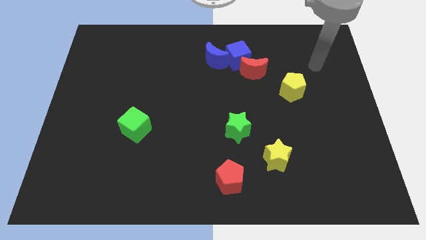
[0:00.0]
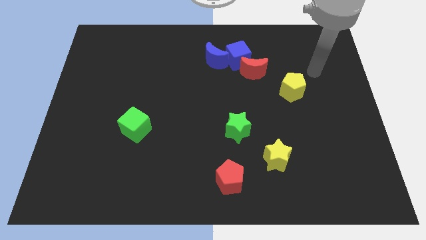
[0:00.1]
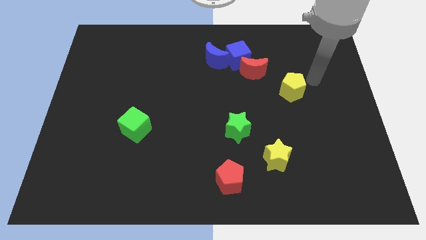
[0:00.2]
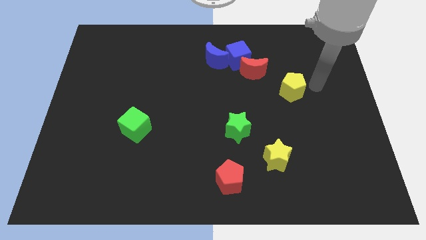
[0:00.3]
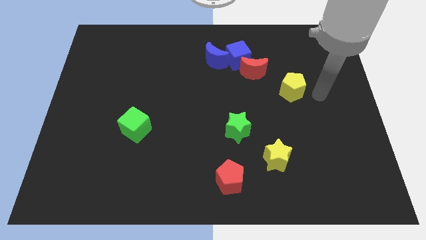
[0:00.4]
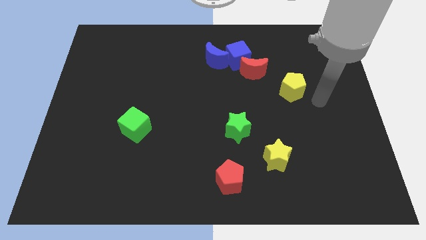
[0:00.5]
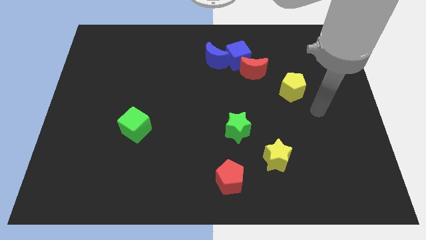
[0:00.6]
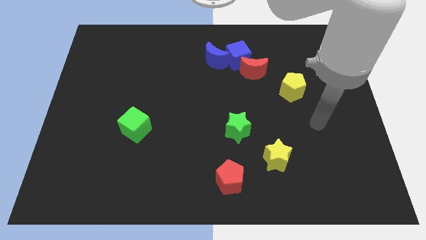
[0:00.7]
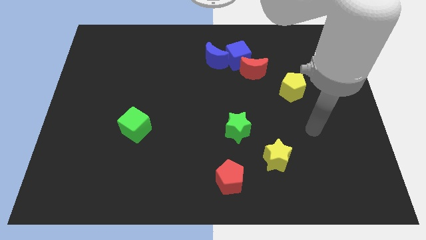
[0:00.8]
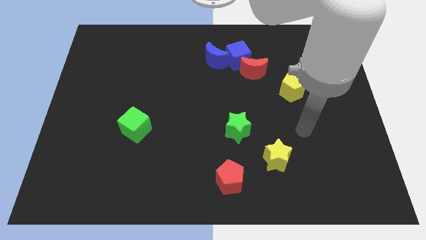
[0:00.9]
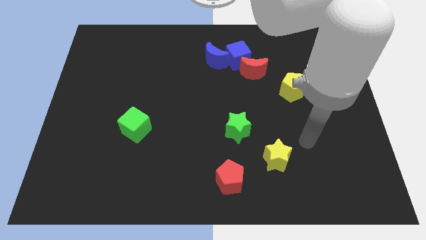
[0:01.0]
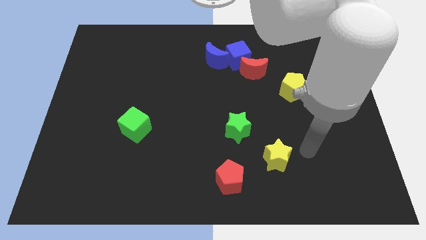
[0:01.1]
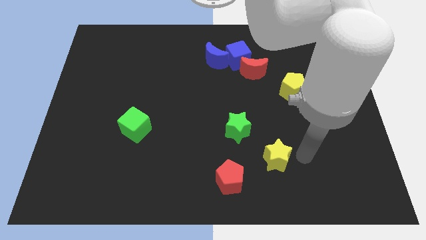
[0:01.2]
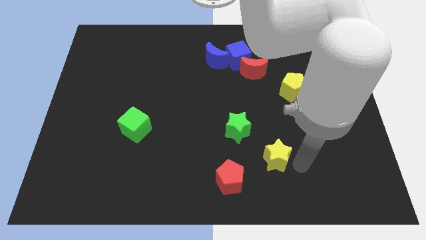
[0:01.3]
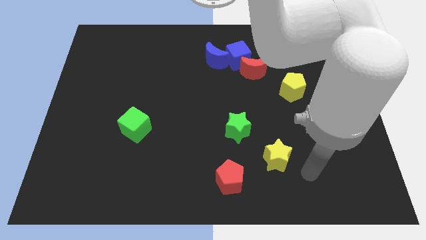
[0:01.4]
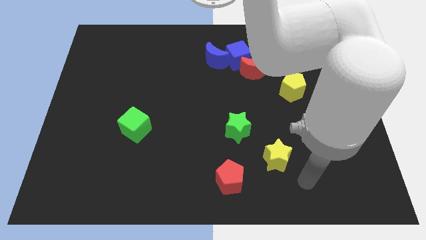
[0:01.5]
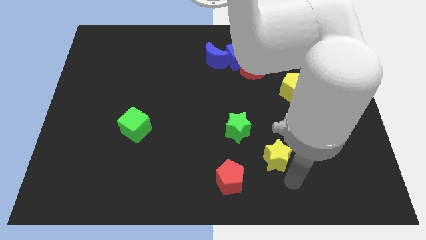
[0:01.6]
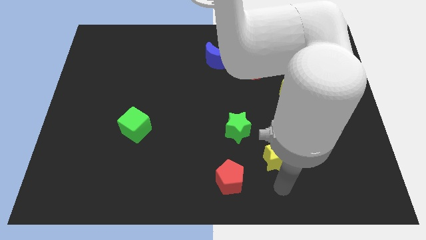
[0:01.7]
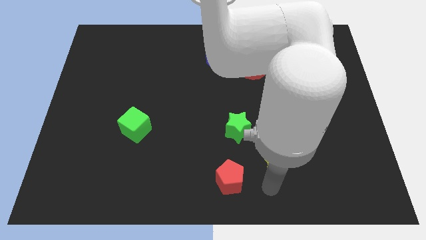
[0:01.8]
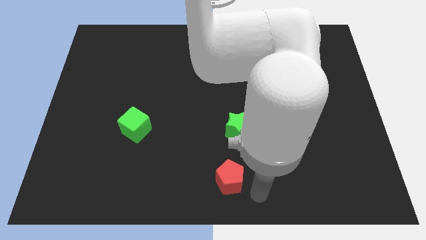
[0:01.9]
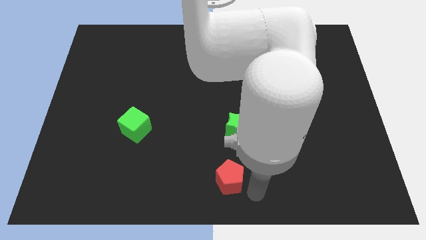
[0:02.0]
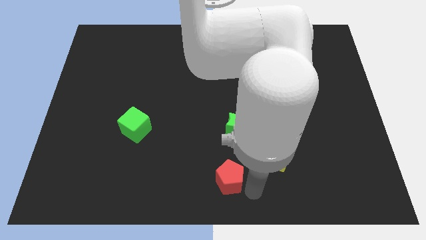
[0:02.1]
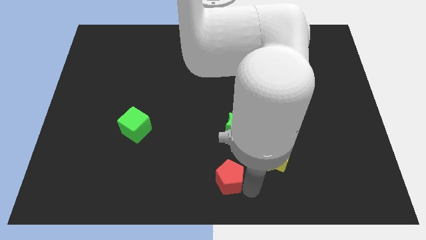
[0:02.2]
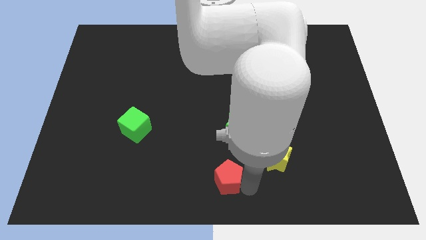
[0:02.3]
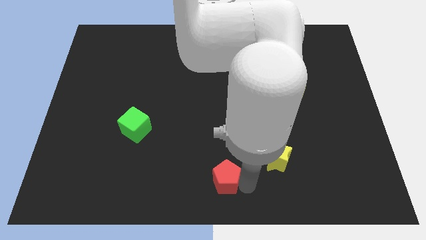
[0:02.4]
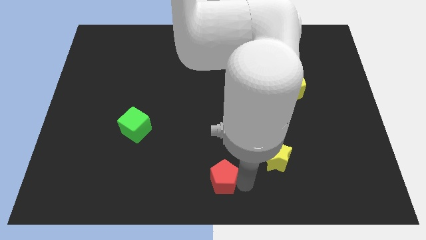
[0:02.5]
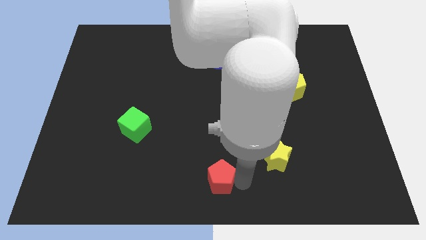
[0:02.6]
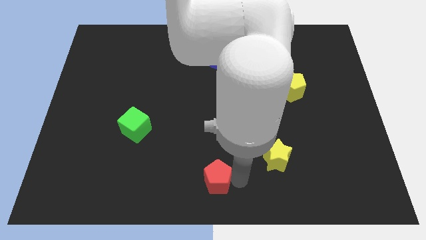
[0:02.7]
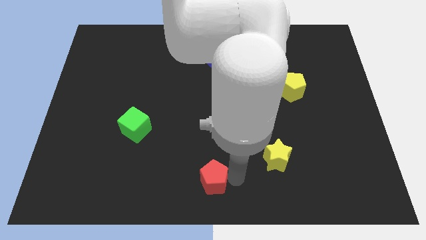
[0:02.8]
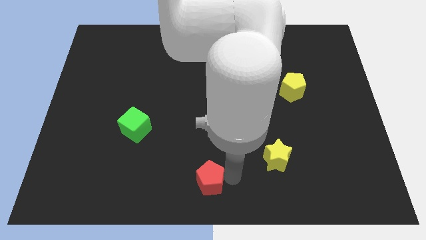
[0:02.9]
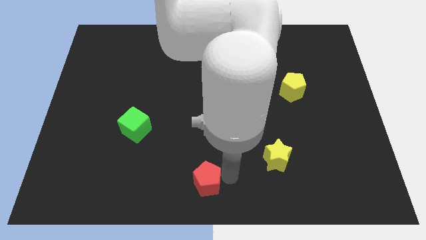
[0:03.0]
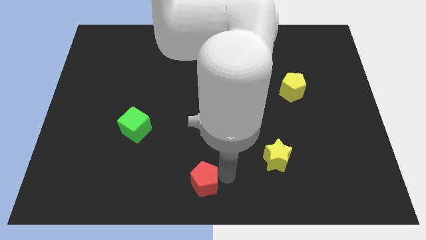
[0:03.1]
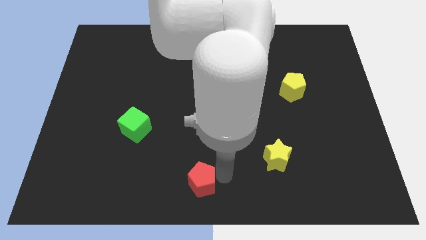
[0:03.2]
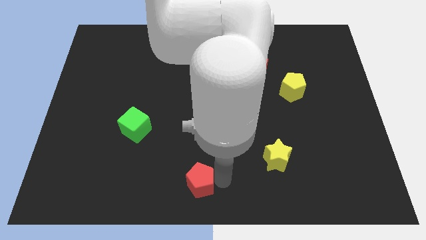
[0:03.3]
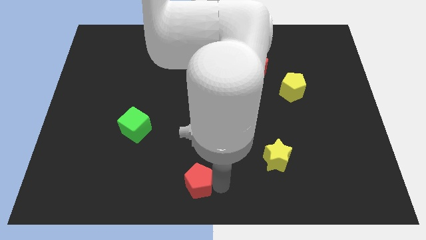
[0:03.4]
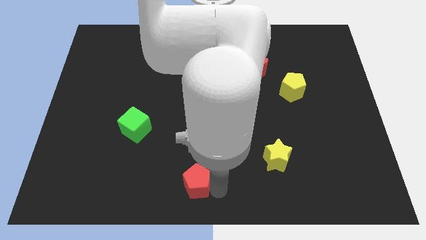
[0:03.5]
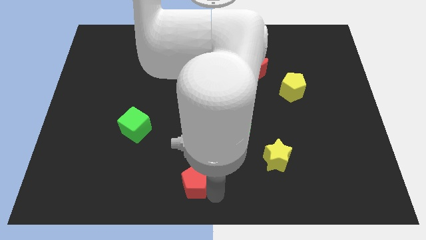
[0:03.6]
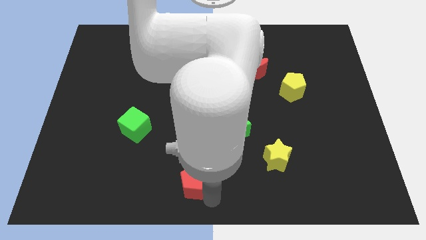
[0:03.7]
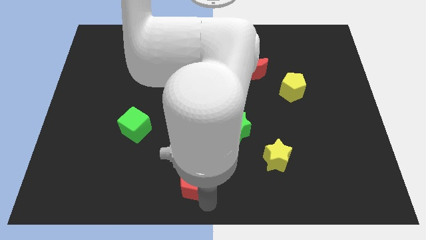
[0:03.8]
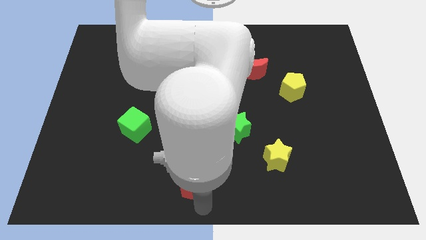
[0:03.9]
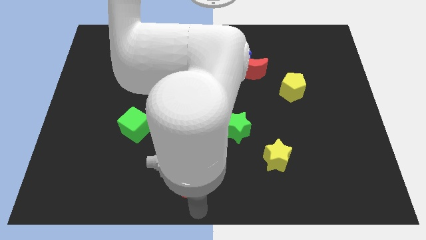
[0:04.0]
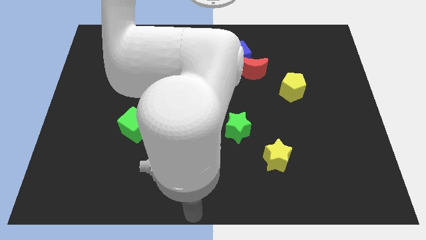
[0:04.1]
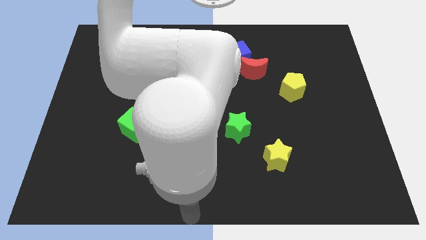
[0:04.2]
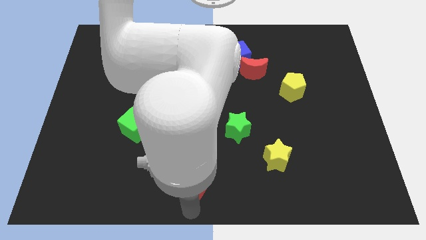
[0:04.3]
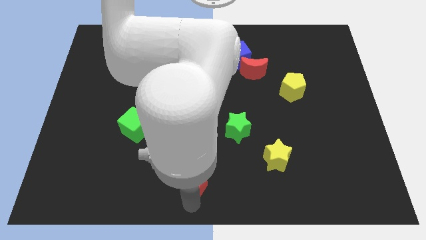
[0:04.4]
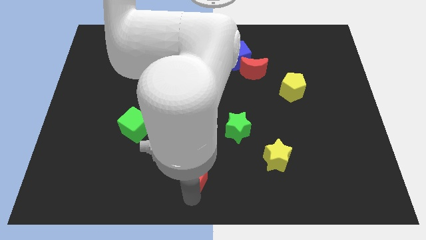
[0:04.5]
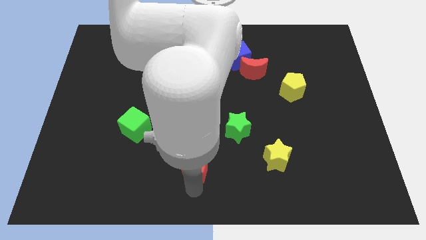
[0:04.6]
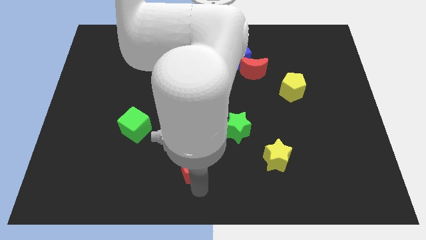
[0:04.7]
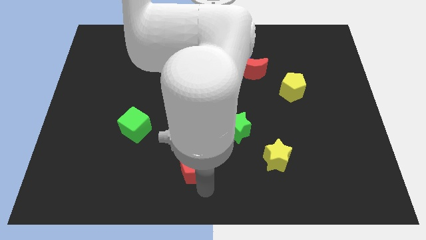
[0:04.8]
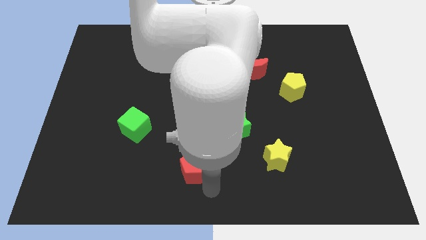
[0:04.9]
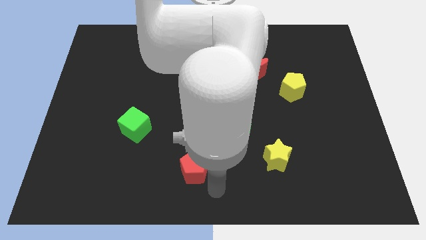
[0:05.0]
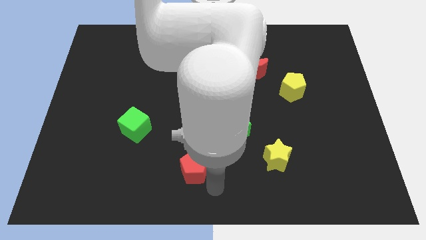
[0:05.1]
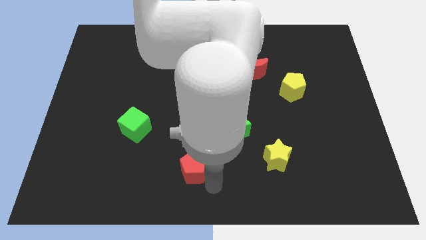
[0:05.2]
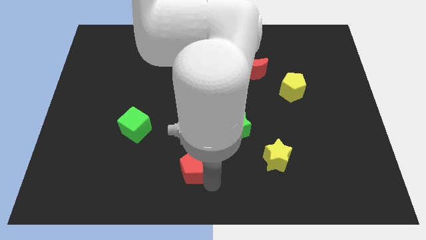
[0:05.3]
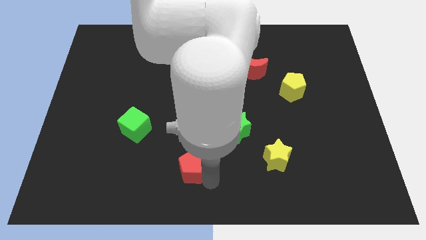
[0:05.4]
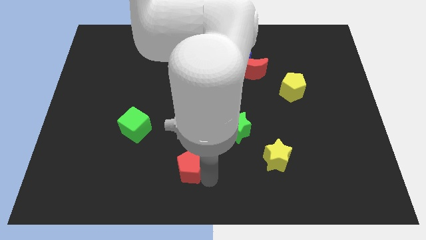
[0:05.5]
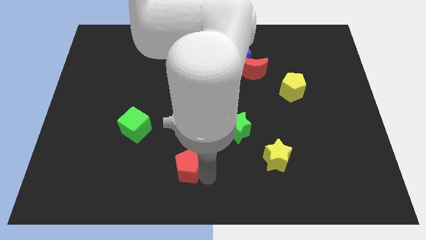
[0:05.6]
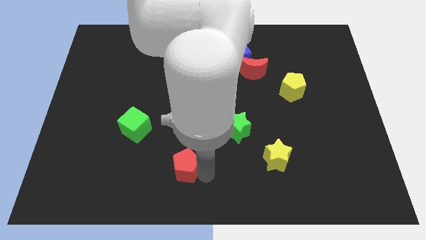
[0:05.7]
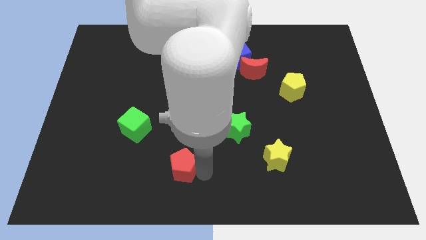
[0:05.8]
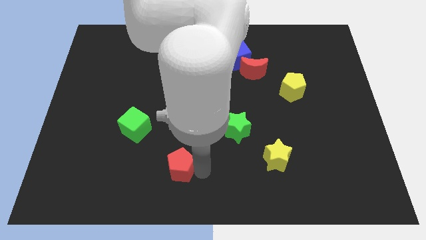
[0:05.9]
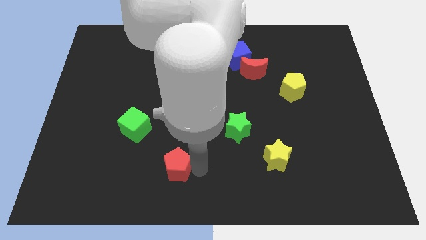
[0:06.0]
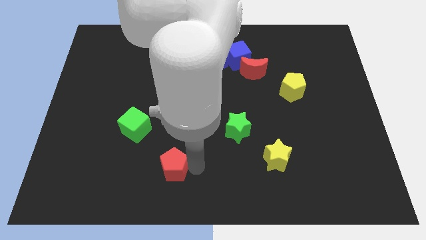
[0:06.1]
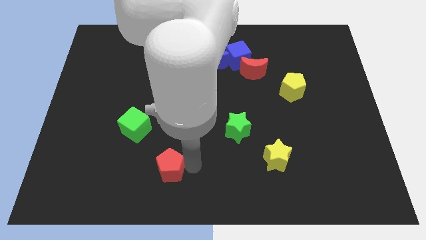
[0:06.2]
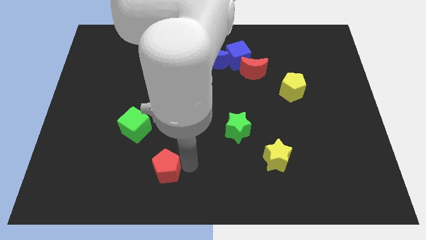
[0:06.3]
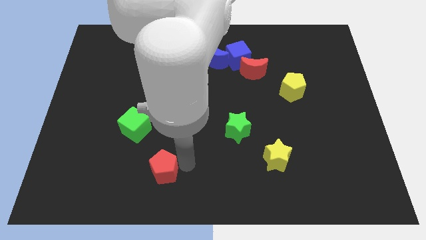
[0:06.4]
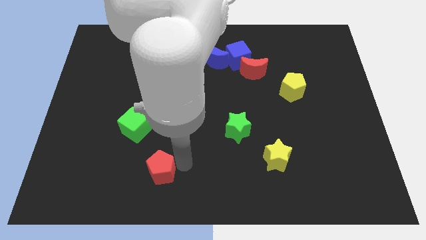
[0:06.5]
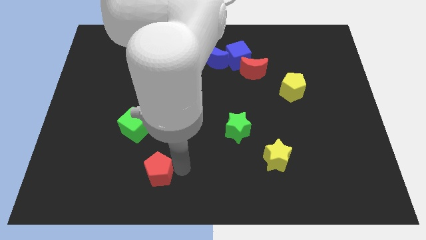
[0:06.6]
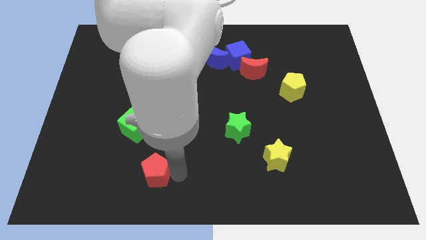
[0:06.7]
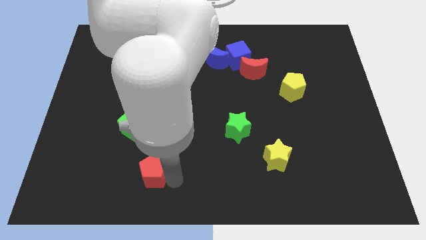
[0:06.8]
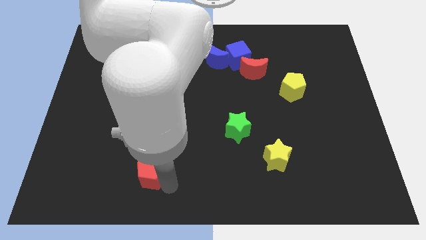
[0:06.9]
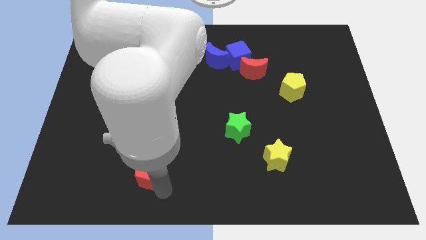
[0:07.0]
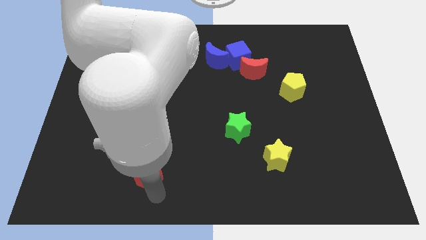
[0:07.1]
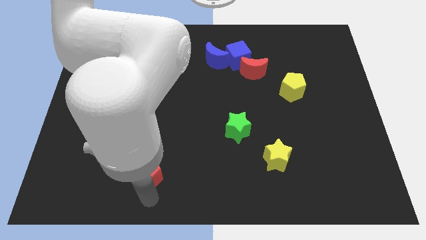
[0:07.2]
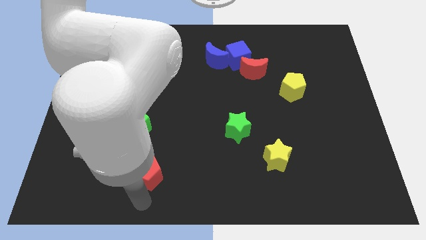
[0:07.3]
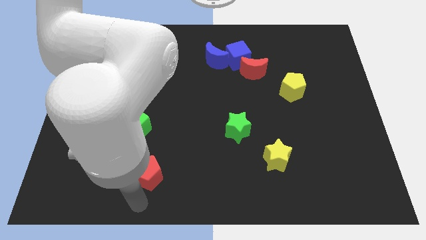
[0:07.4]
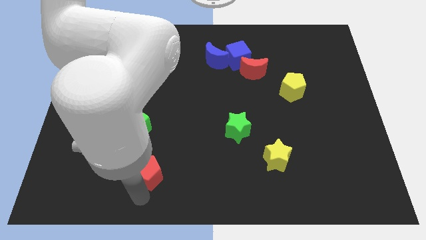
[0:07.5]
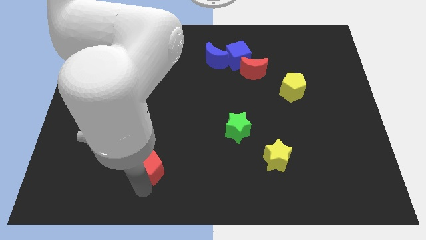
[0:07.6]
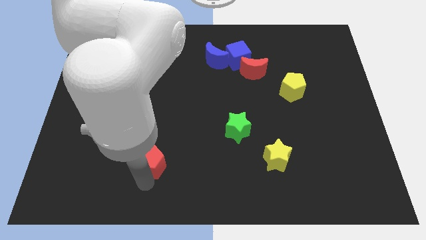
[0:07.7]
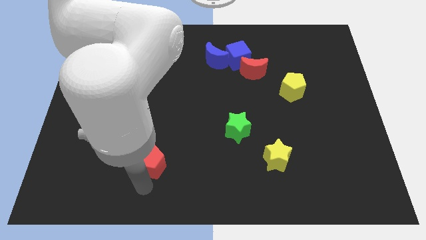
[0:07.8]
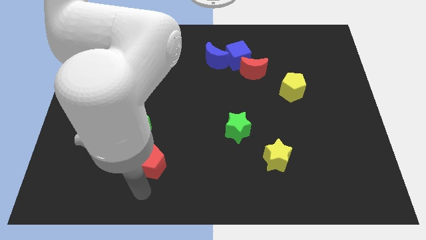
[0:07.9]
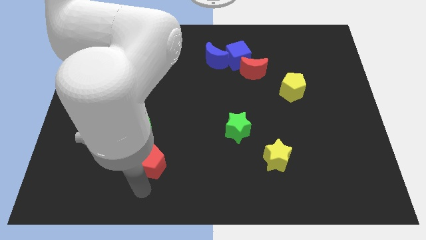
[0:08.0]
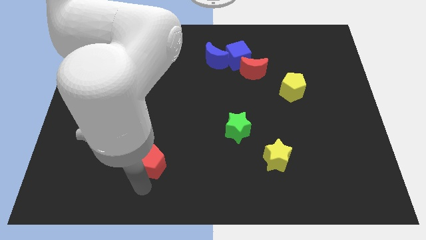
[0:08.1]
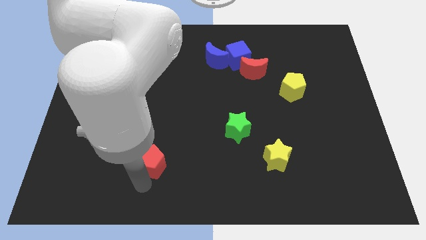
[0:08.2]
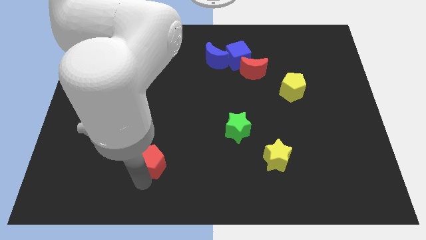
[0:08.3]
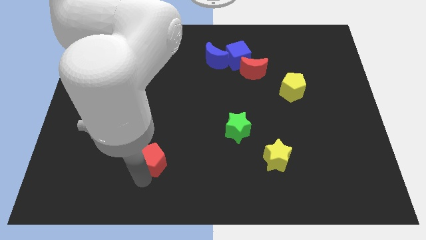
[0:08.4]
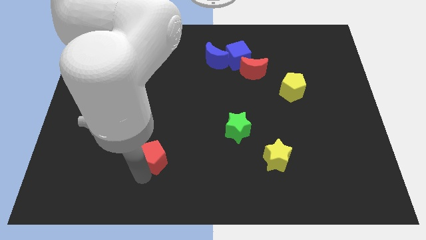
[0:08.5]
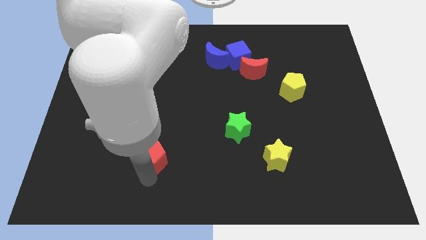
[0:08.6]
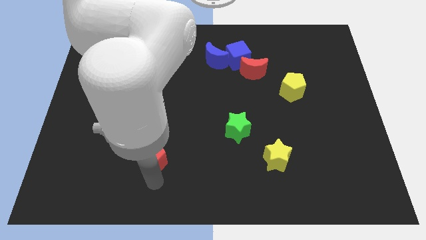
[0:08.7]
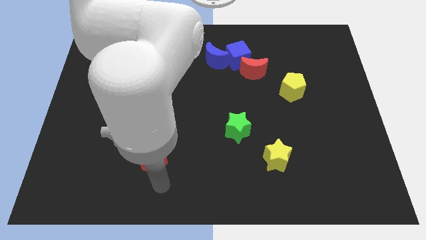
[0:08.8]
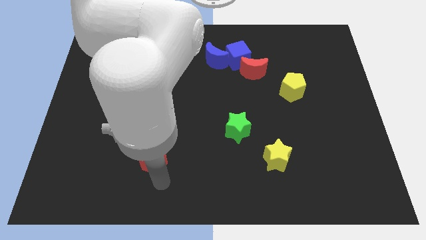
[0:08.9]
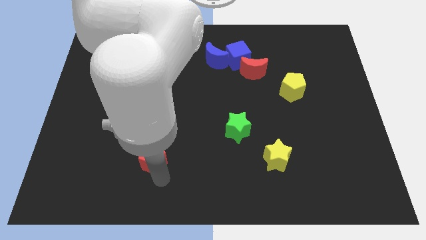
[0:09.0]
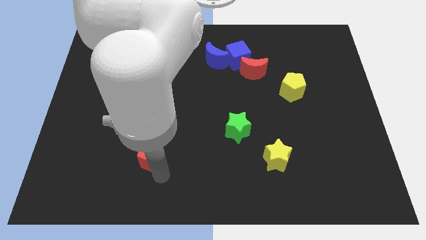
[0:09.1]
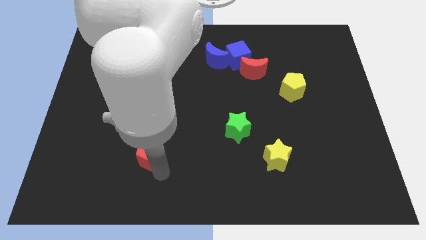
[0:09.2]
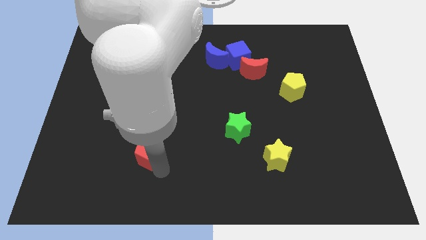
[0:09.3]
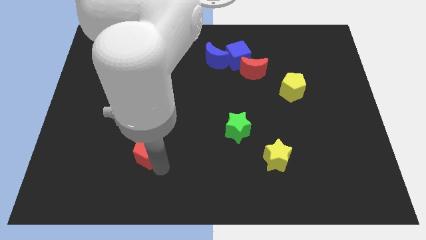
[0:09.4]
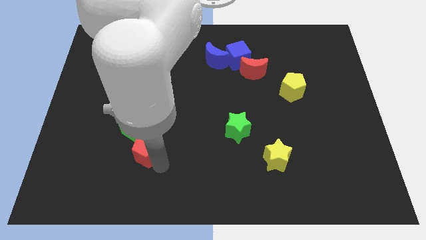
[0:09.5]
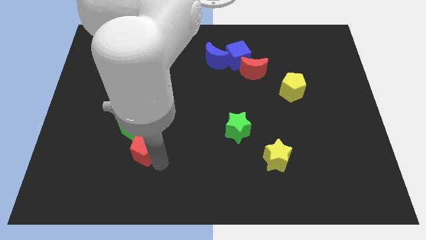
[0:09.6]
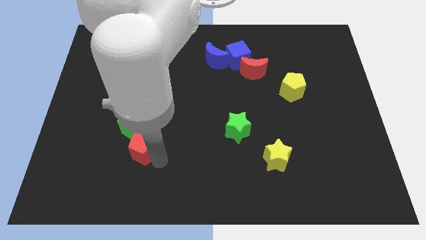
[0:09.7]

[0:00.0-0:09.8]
slide the red pentagon to the green cube
